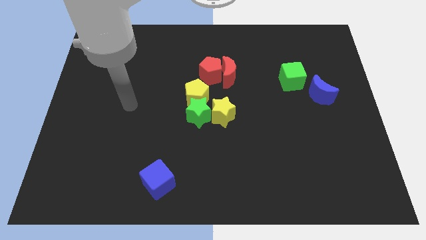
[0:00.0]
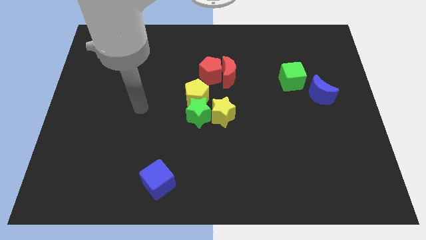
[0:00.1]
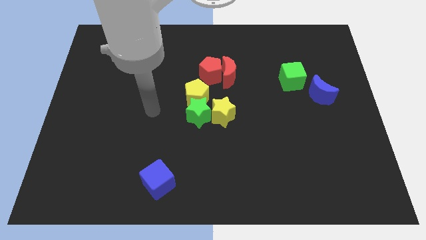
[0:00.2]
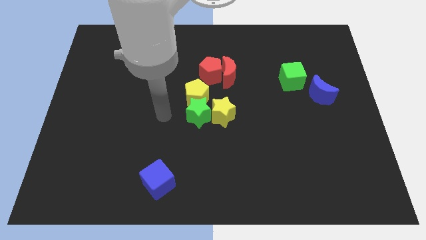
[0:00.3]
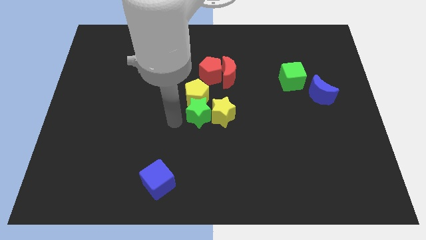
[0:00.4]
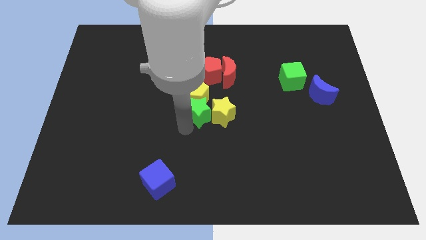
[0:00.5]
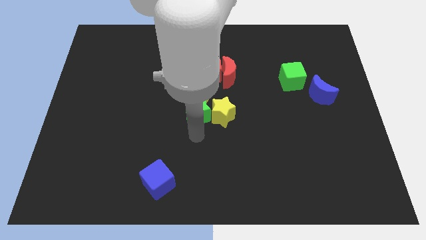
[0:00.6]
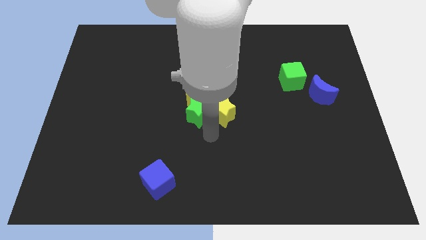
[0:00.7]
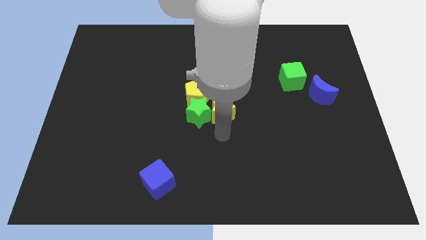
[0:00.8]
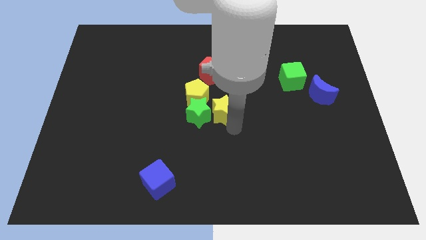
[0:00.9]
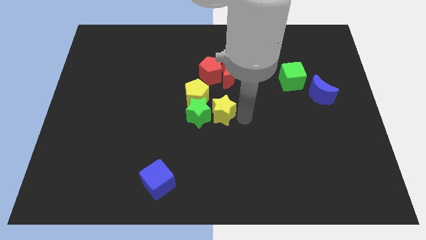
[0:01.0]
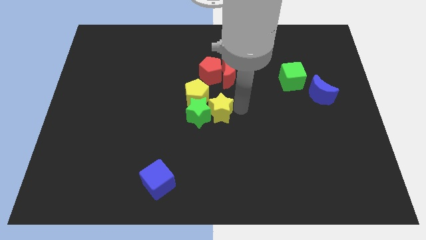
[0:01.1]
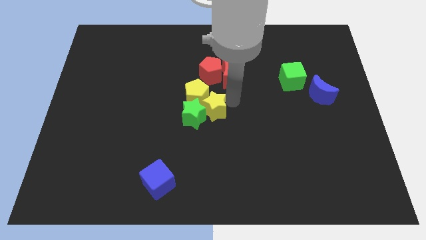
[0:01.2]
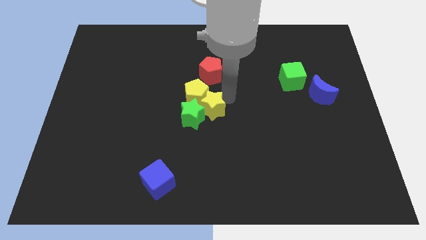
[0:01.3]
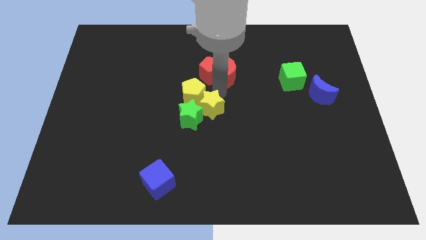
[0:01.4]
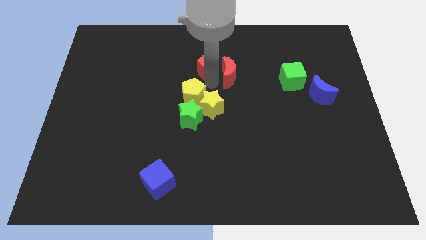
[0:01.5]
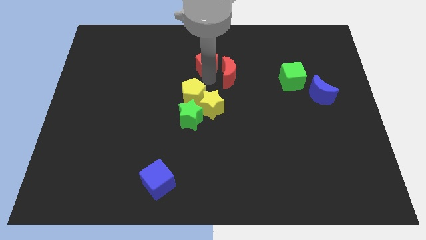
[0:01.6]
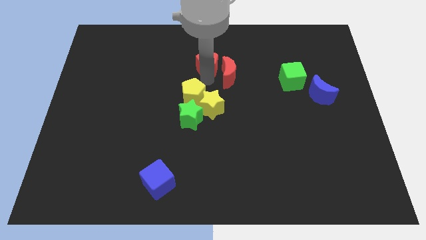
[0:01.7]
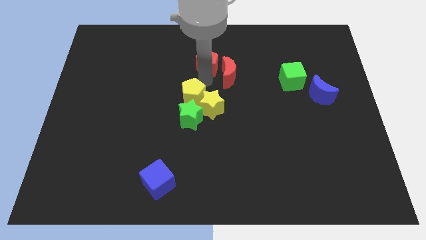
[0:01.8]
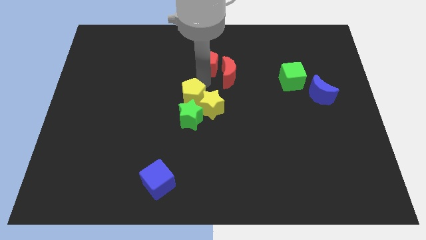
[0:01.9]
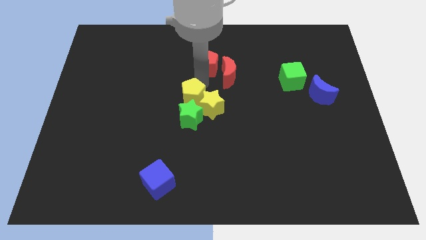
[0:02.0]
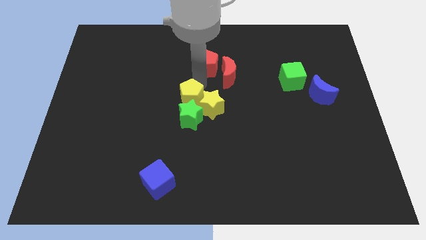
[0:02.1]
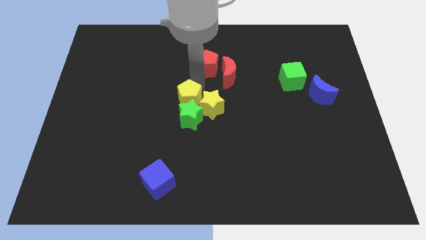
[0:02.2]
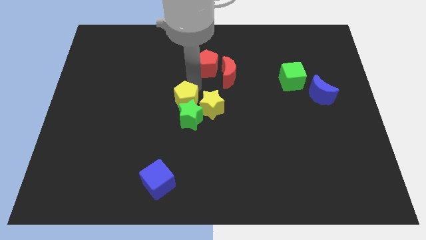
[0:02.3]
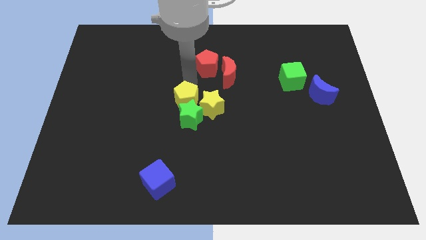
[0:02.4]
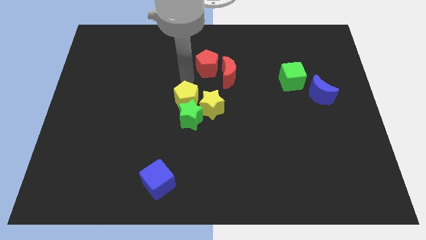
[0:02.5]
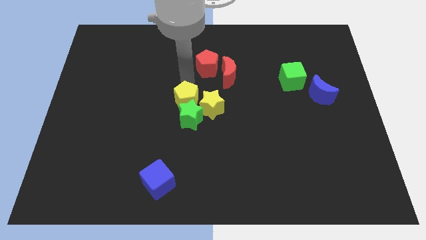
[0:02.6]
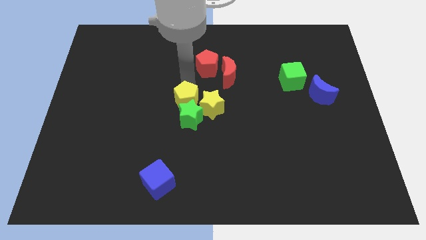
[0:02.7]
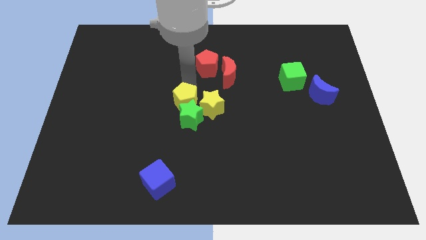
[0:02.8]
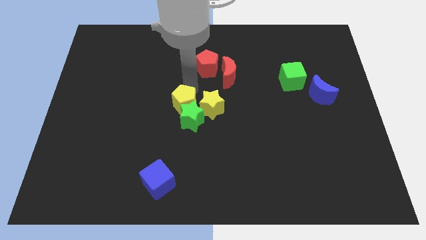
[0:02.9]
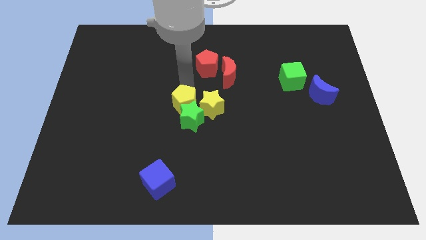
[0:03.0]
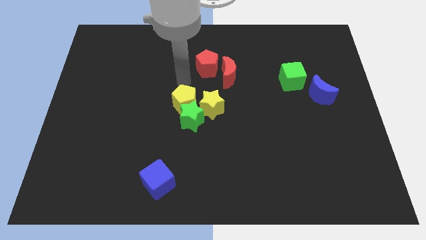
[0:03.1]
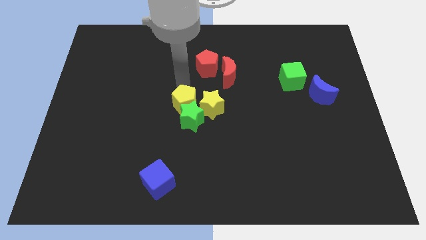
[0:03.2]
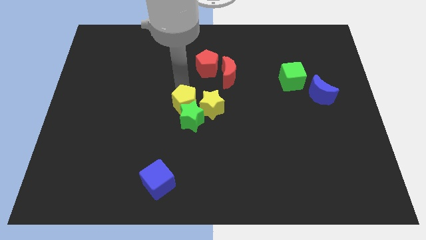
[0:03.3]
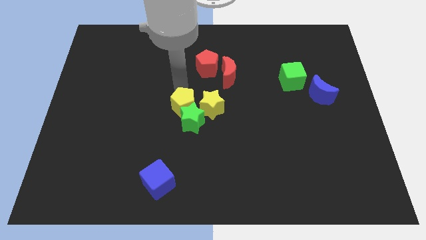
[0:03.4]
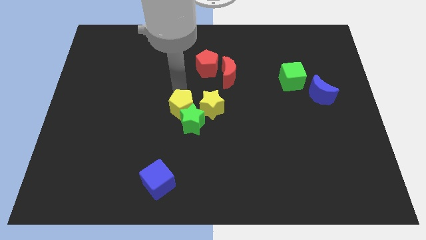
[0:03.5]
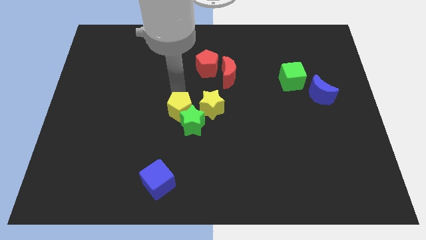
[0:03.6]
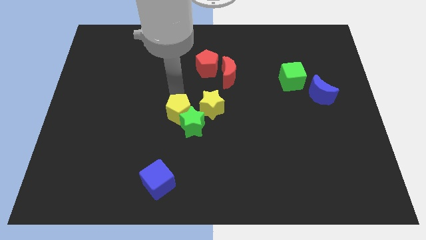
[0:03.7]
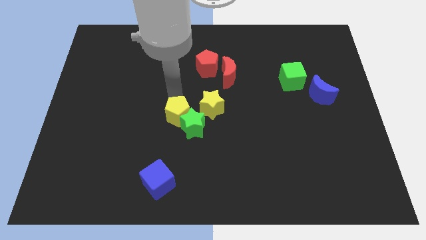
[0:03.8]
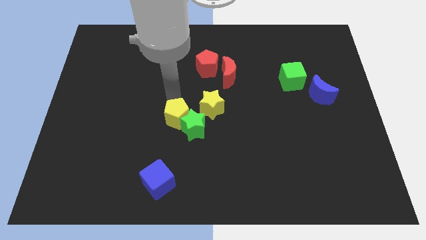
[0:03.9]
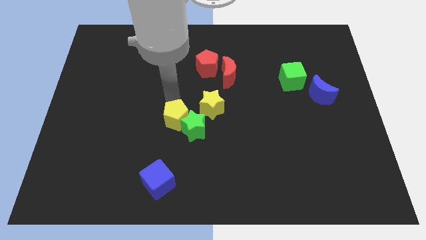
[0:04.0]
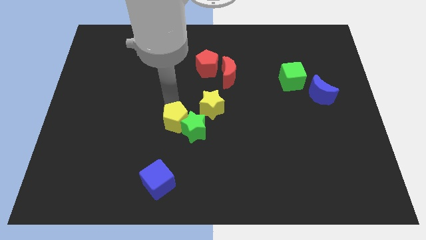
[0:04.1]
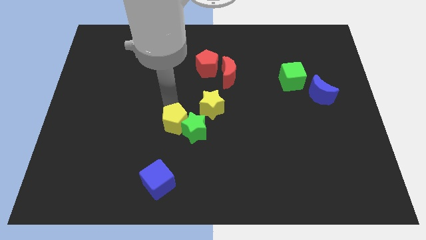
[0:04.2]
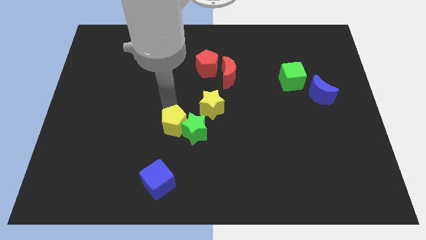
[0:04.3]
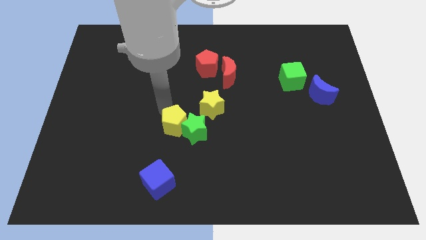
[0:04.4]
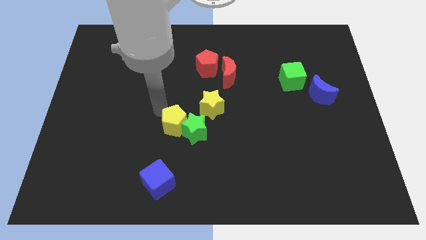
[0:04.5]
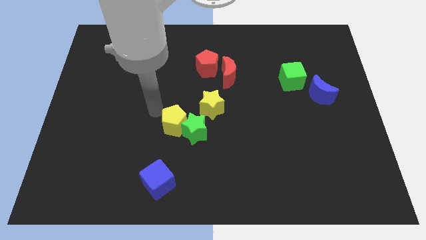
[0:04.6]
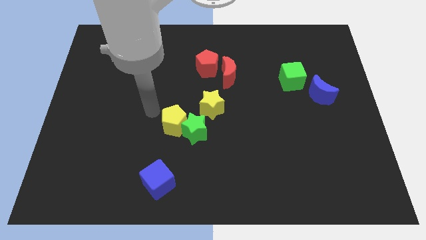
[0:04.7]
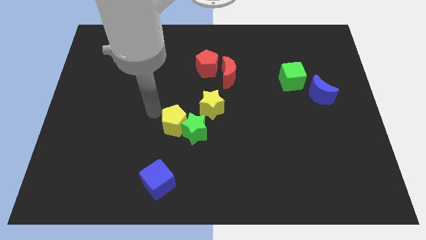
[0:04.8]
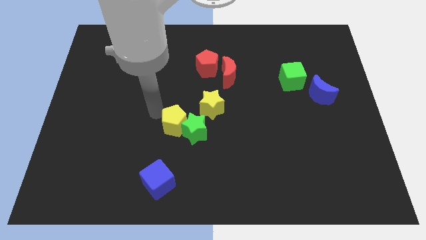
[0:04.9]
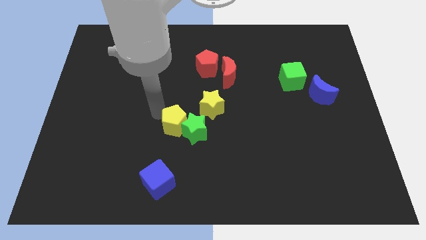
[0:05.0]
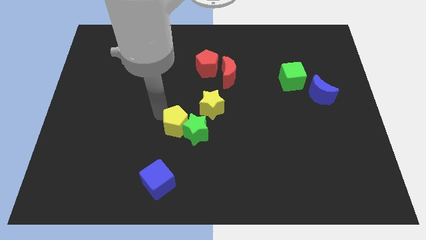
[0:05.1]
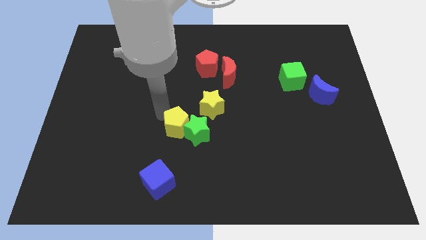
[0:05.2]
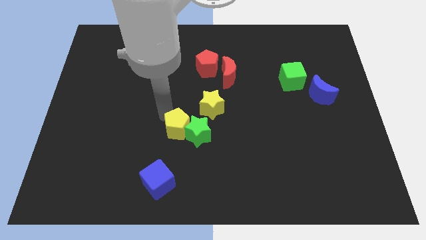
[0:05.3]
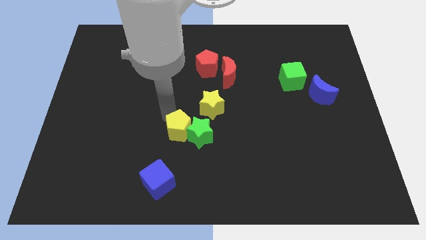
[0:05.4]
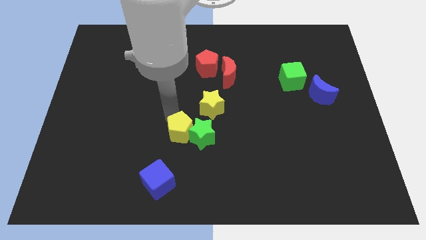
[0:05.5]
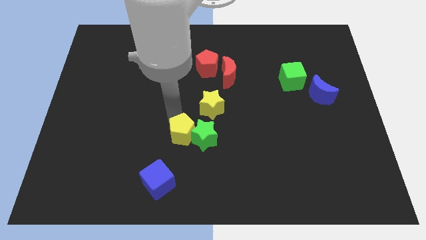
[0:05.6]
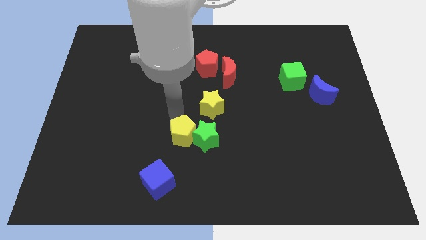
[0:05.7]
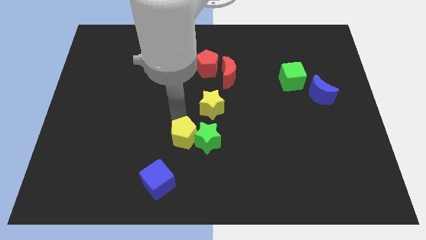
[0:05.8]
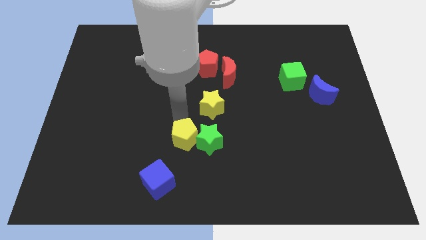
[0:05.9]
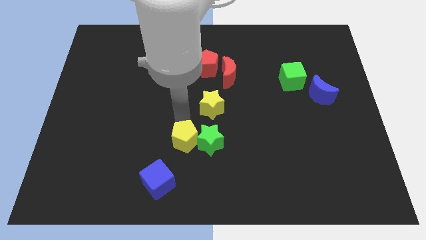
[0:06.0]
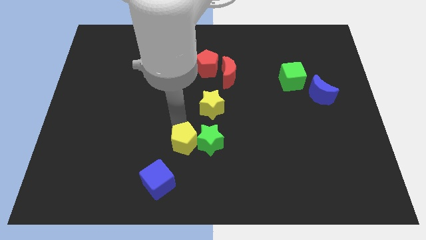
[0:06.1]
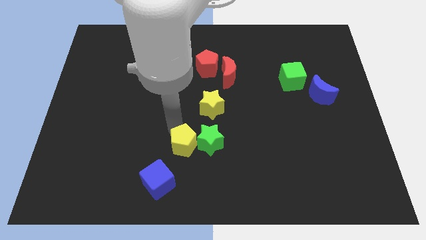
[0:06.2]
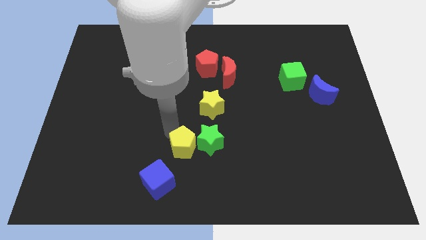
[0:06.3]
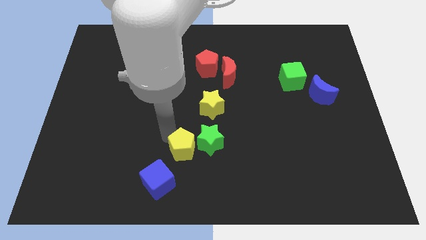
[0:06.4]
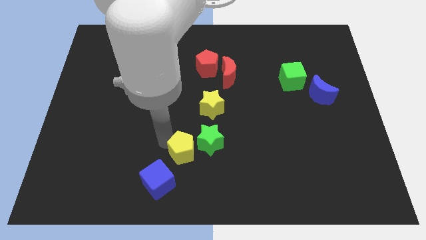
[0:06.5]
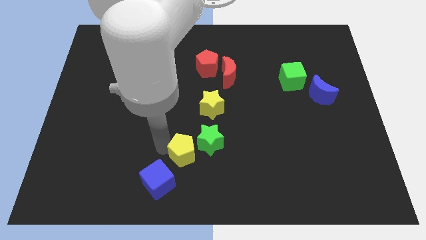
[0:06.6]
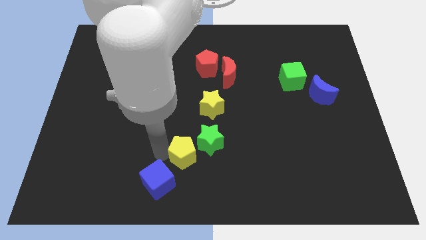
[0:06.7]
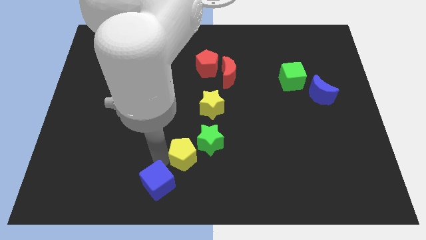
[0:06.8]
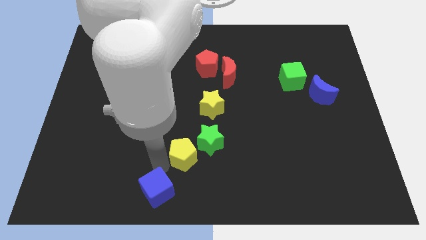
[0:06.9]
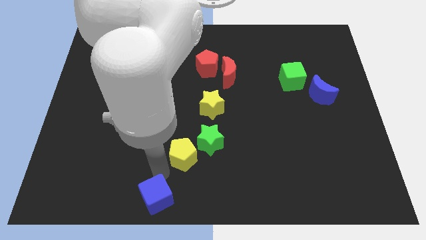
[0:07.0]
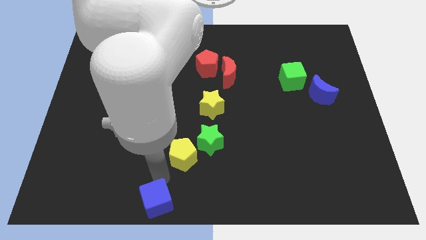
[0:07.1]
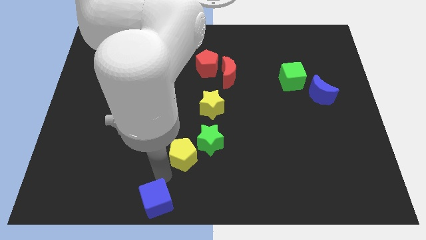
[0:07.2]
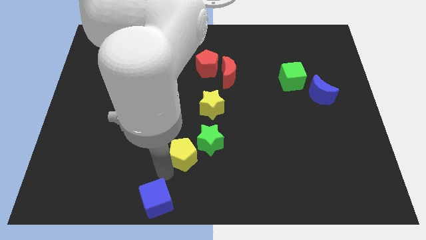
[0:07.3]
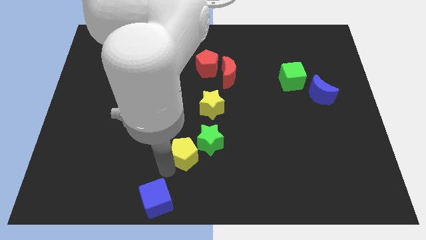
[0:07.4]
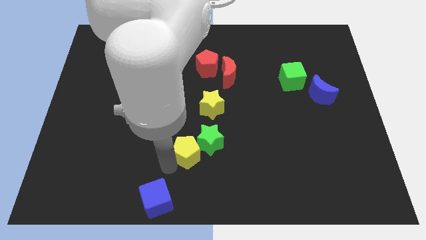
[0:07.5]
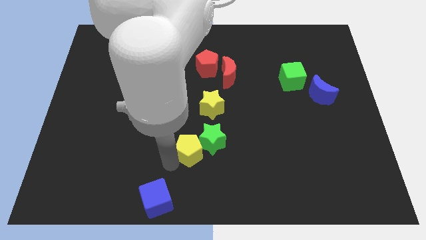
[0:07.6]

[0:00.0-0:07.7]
put the yellow pentagon to the bottom side of the yellow star
